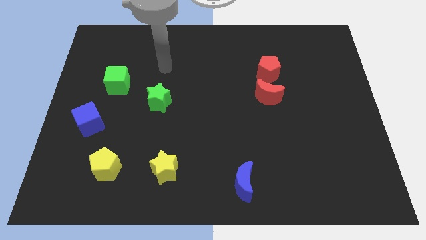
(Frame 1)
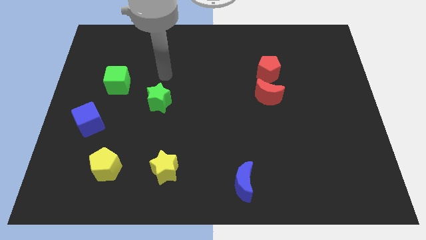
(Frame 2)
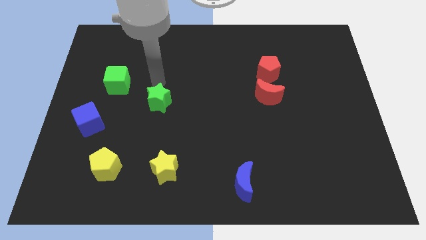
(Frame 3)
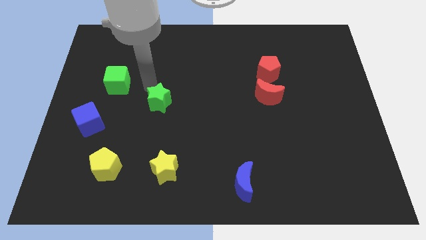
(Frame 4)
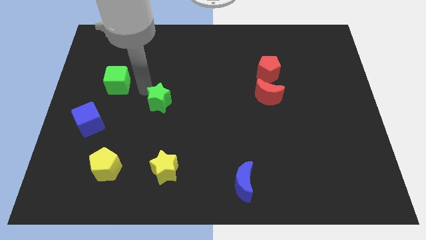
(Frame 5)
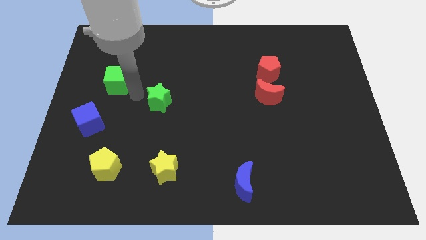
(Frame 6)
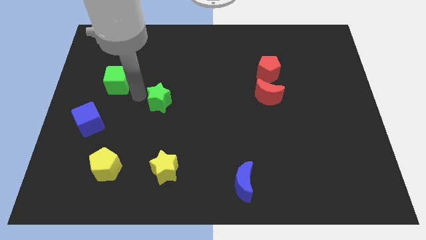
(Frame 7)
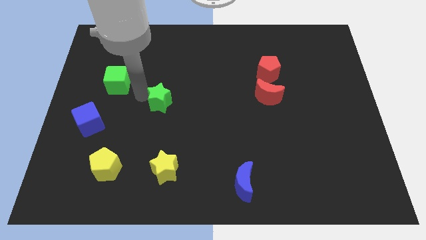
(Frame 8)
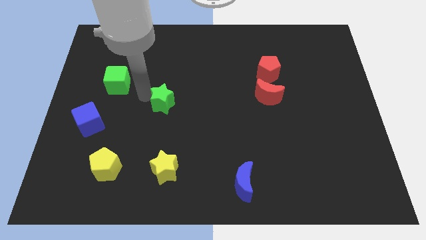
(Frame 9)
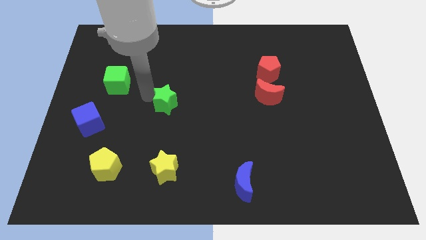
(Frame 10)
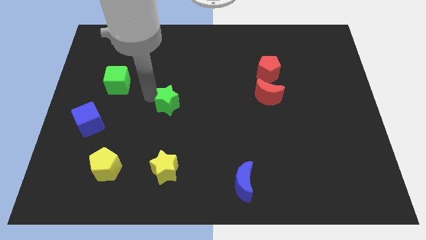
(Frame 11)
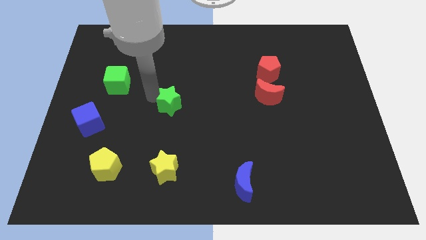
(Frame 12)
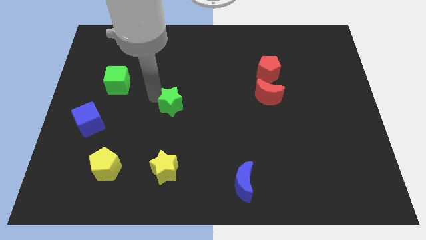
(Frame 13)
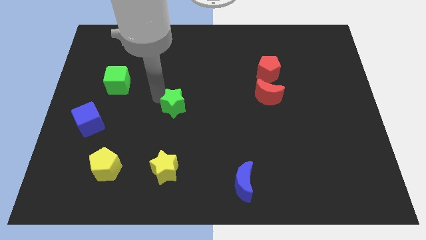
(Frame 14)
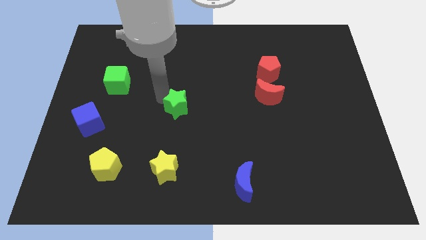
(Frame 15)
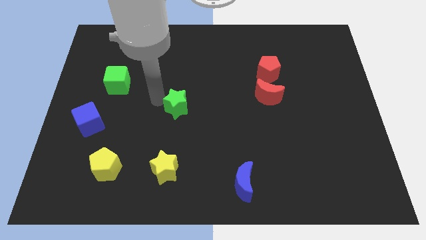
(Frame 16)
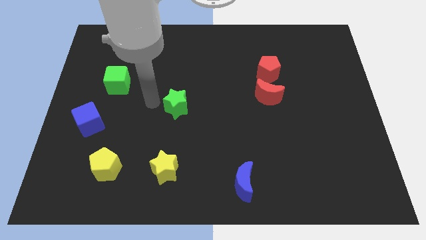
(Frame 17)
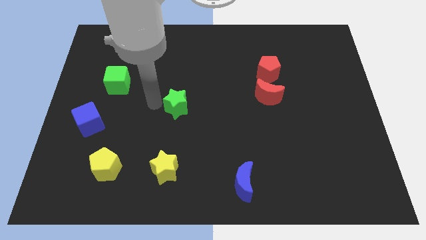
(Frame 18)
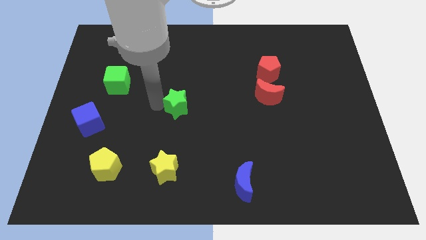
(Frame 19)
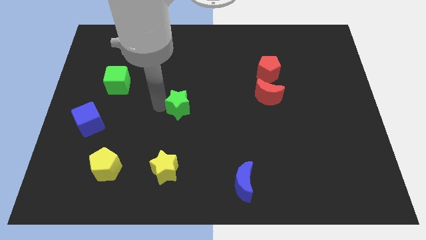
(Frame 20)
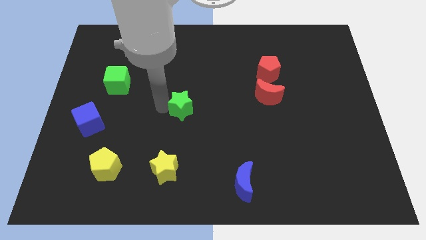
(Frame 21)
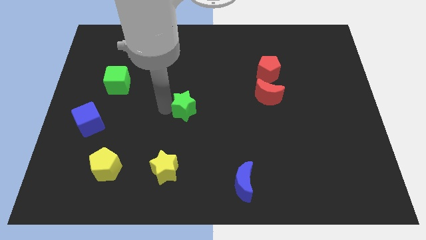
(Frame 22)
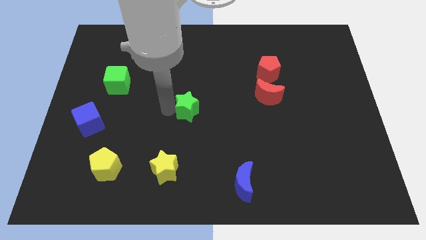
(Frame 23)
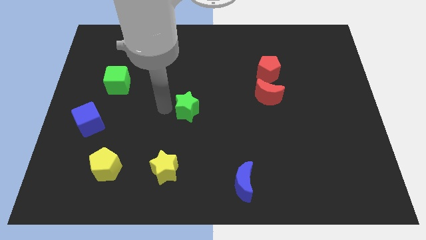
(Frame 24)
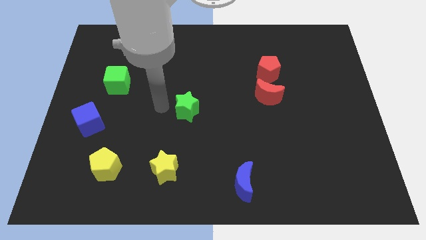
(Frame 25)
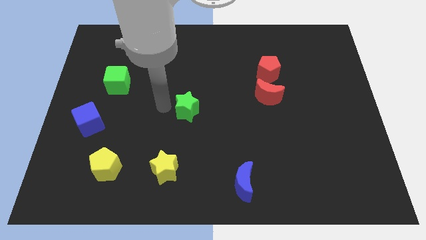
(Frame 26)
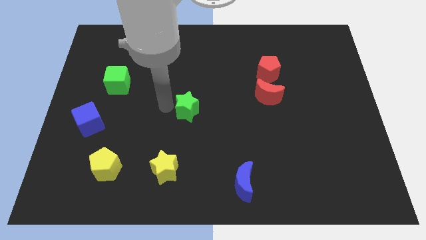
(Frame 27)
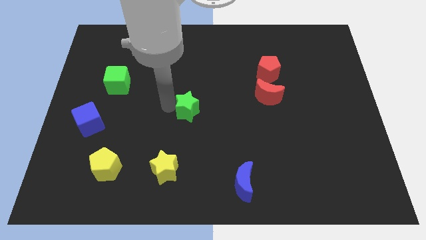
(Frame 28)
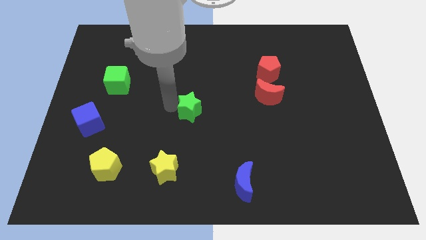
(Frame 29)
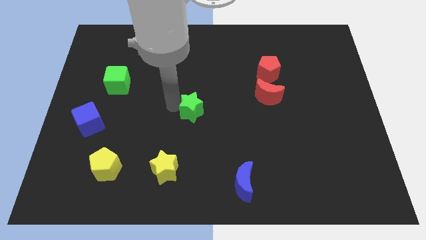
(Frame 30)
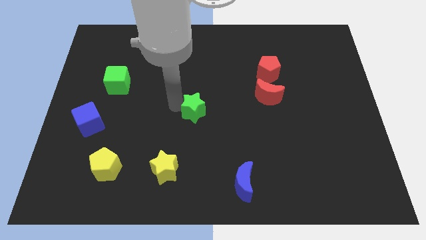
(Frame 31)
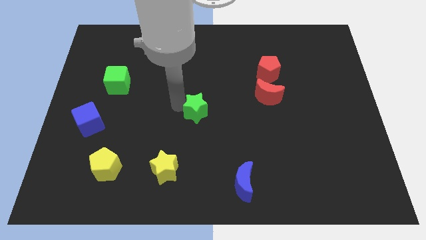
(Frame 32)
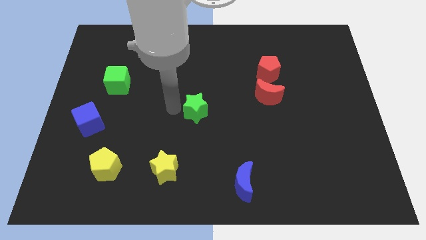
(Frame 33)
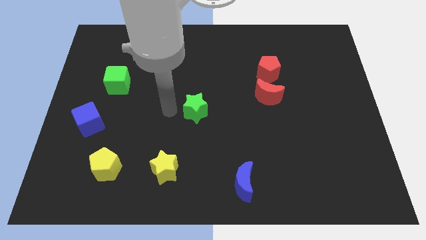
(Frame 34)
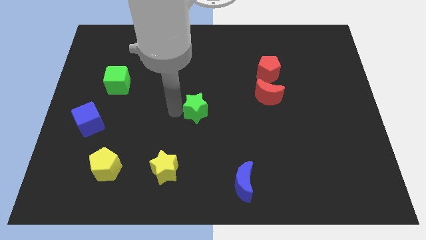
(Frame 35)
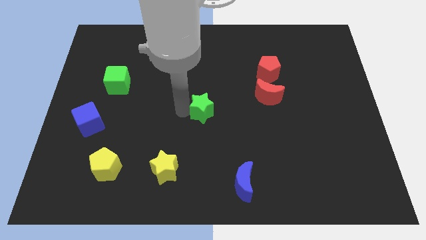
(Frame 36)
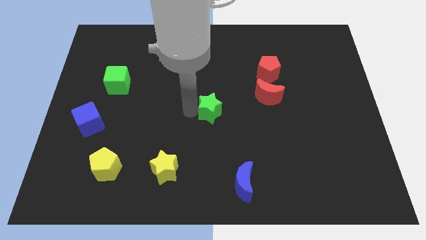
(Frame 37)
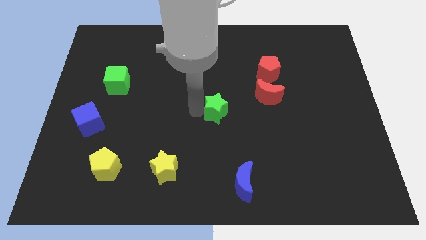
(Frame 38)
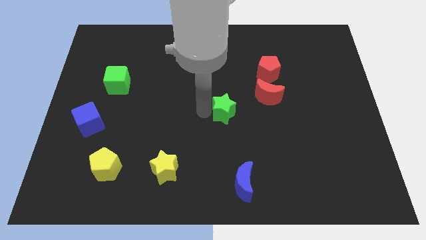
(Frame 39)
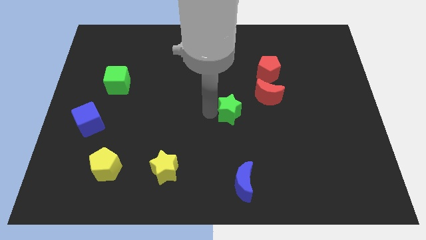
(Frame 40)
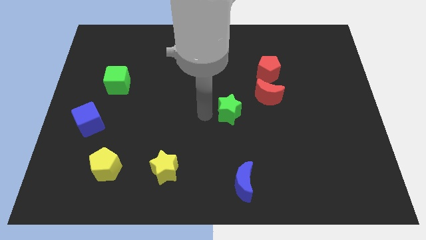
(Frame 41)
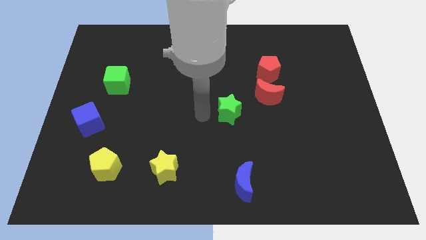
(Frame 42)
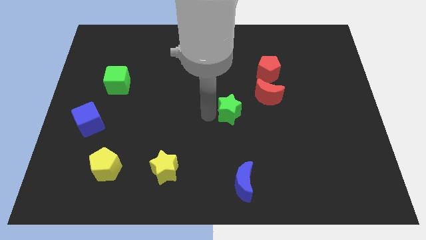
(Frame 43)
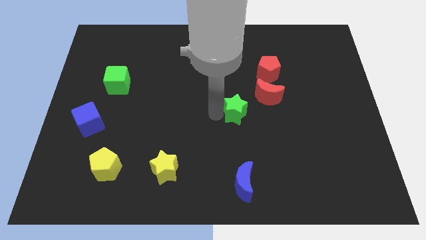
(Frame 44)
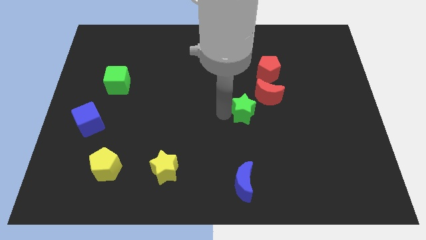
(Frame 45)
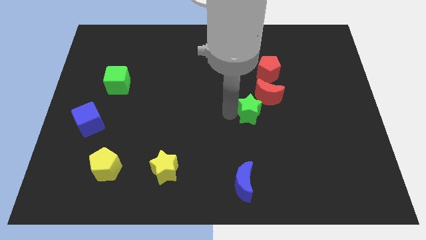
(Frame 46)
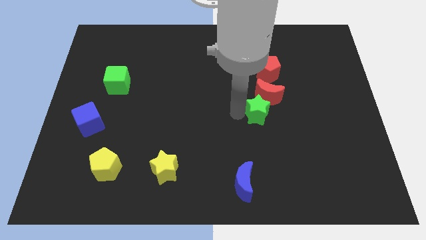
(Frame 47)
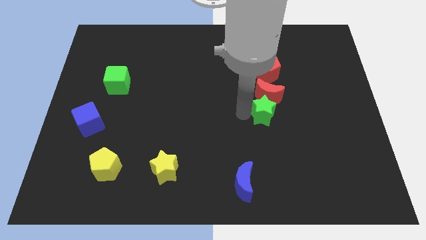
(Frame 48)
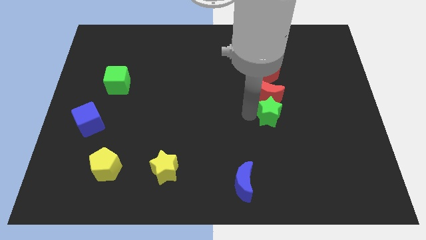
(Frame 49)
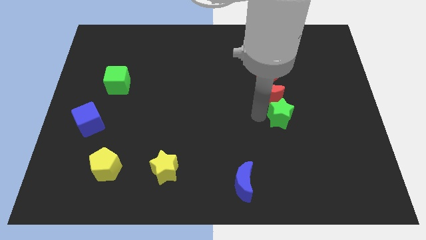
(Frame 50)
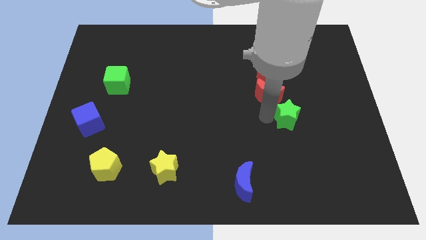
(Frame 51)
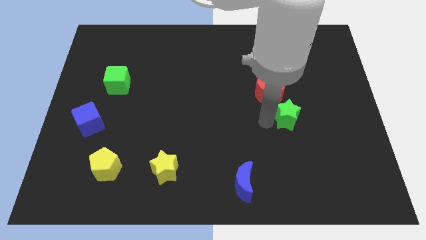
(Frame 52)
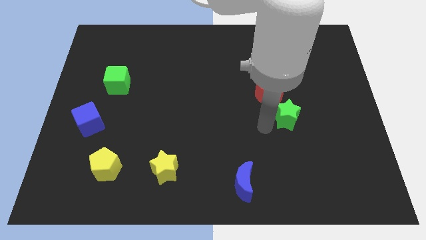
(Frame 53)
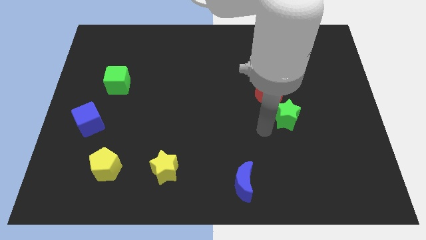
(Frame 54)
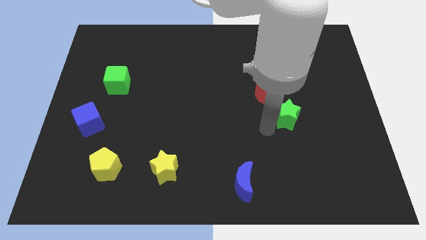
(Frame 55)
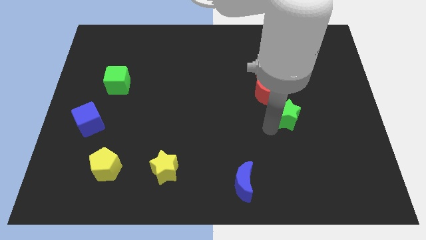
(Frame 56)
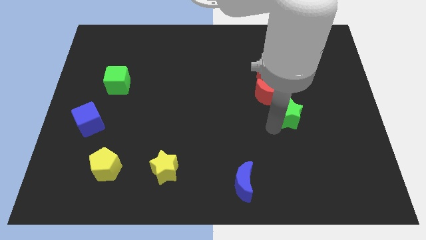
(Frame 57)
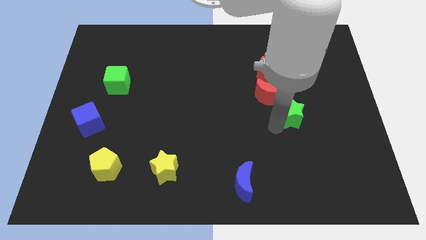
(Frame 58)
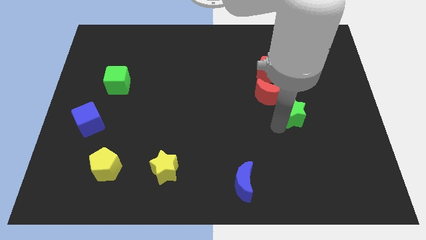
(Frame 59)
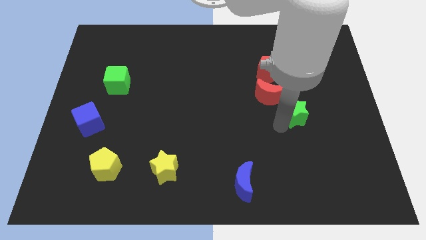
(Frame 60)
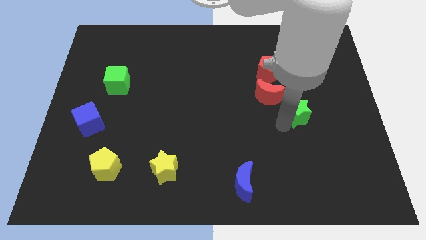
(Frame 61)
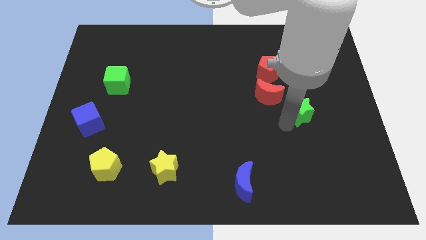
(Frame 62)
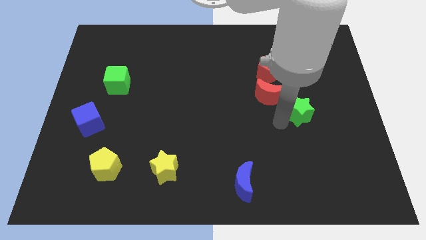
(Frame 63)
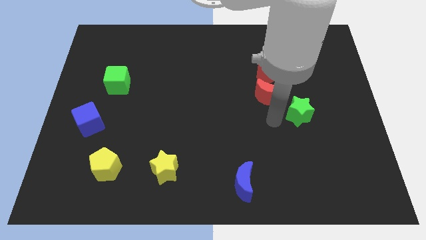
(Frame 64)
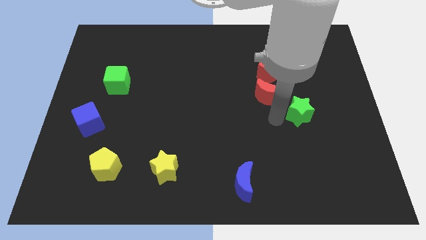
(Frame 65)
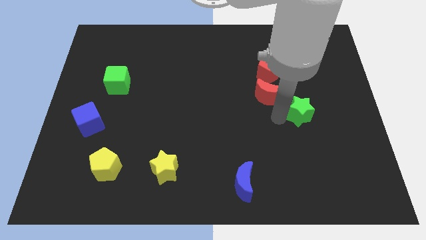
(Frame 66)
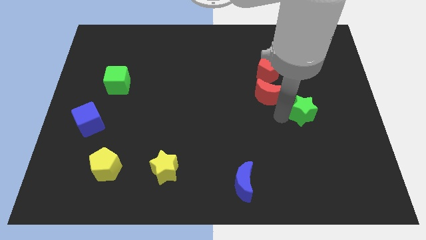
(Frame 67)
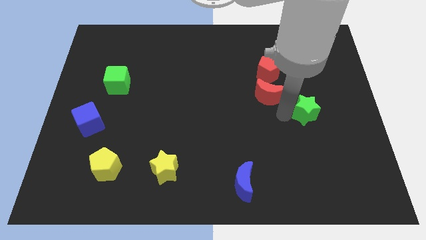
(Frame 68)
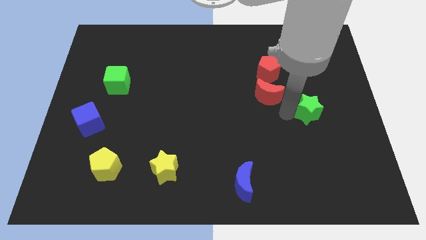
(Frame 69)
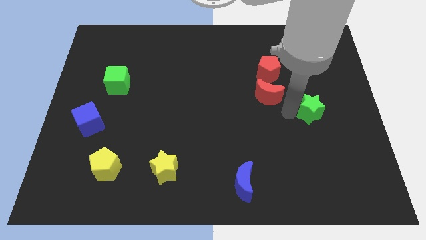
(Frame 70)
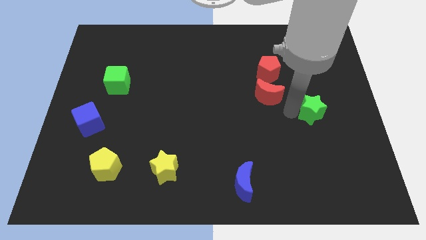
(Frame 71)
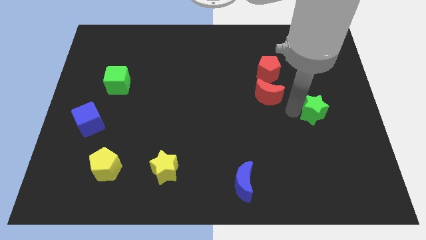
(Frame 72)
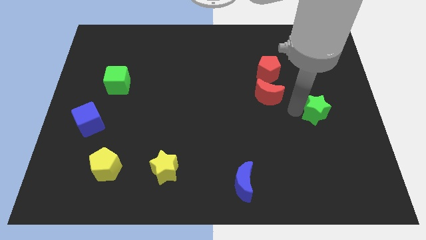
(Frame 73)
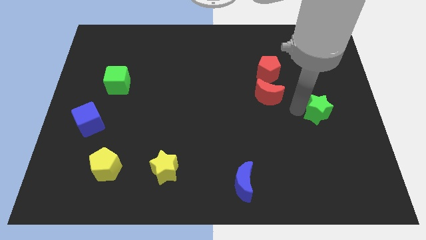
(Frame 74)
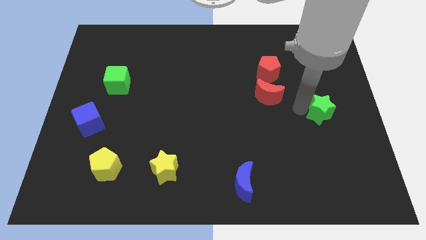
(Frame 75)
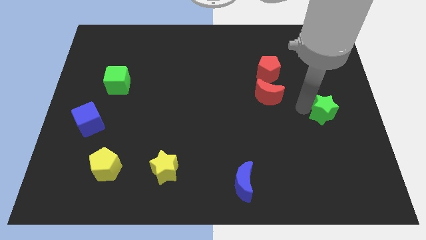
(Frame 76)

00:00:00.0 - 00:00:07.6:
slide the green star to the center right
